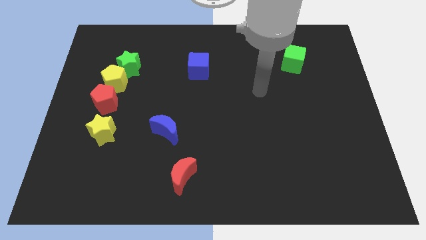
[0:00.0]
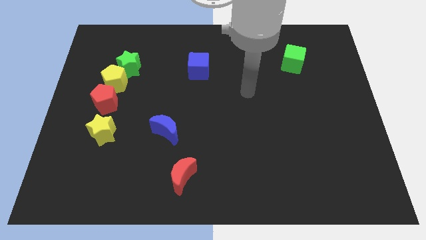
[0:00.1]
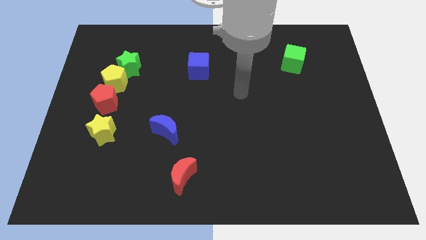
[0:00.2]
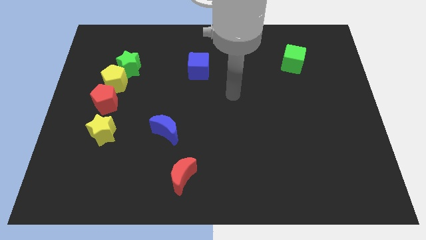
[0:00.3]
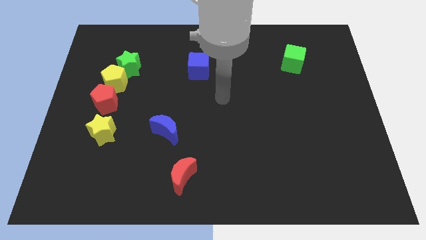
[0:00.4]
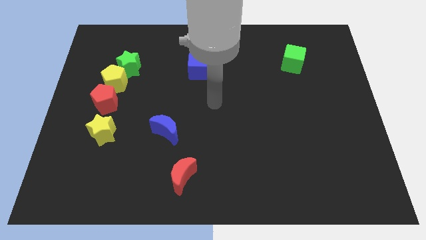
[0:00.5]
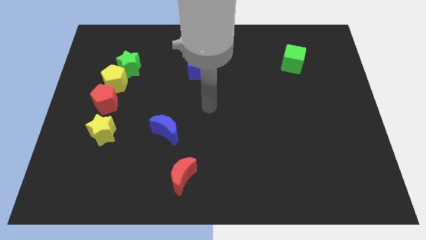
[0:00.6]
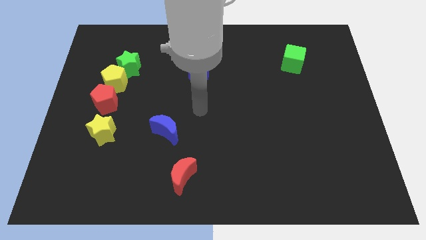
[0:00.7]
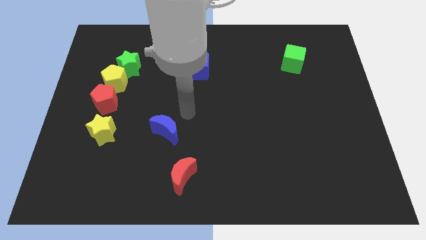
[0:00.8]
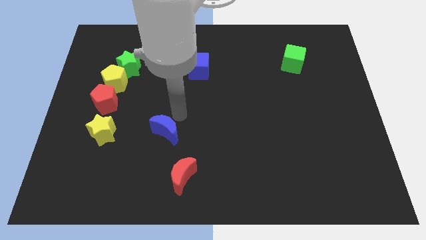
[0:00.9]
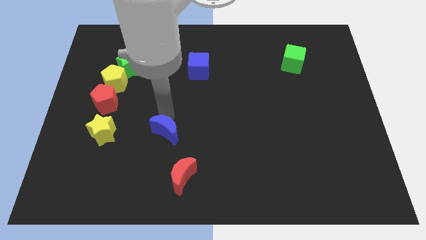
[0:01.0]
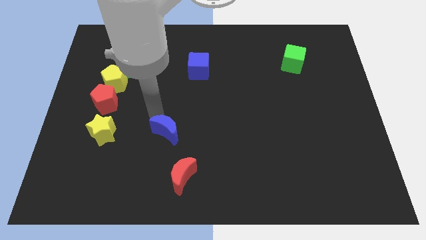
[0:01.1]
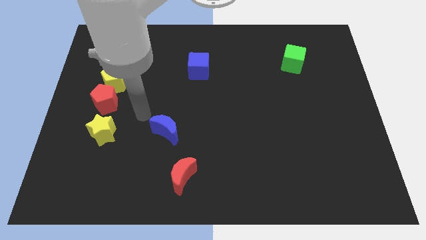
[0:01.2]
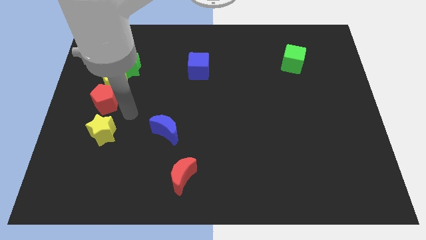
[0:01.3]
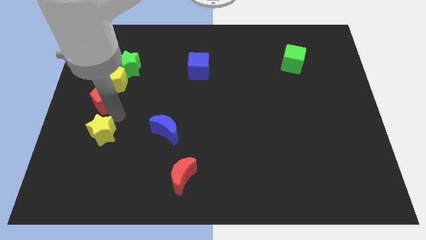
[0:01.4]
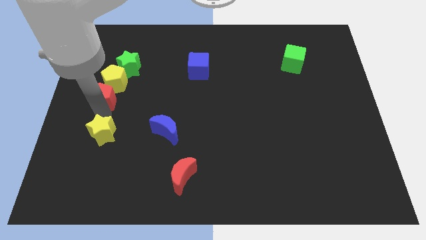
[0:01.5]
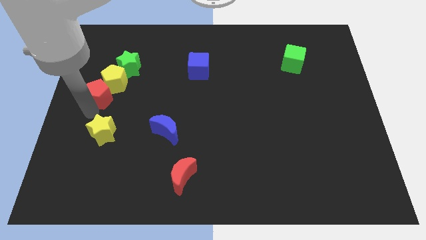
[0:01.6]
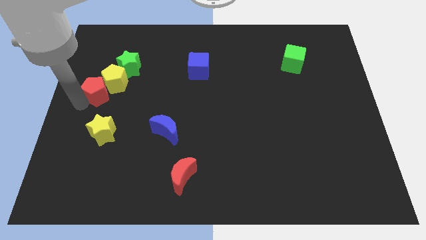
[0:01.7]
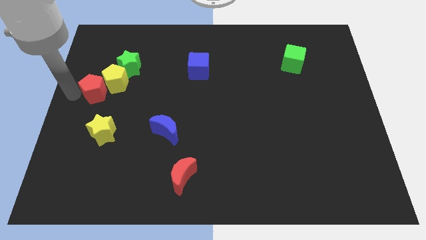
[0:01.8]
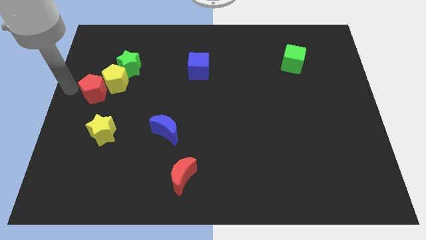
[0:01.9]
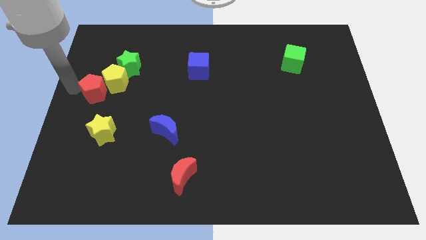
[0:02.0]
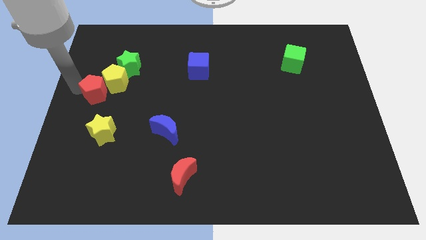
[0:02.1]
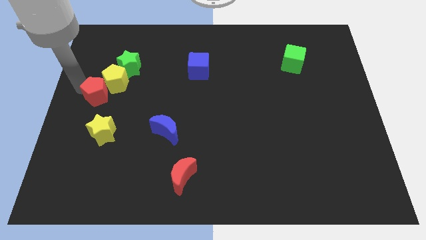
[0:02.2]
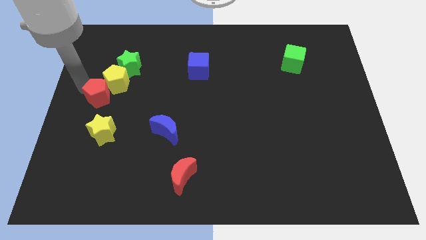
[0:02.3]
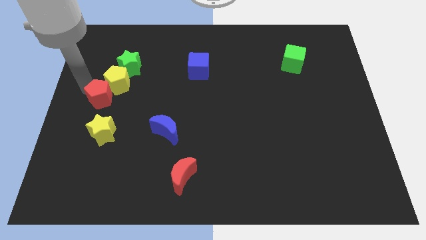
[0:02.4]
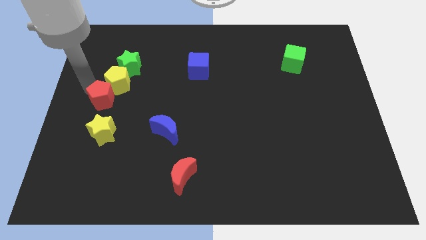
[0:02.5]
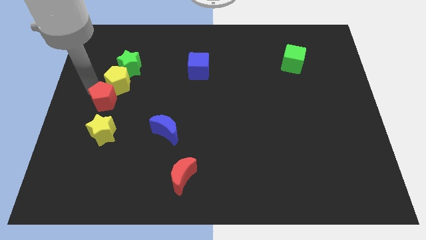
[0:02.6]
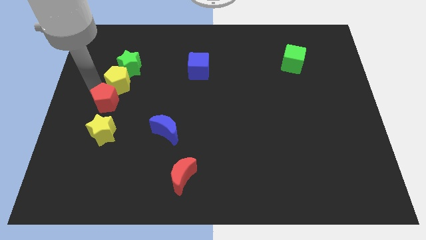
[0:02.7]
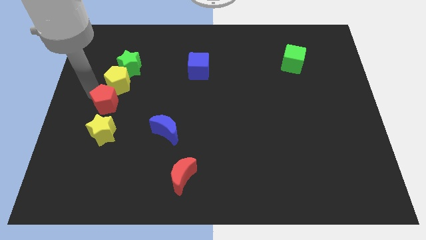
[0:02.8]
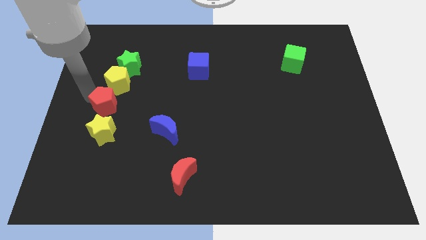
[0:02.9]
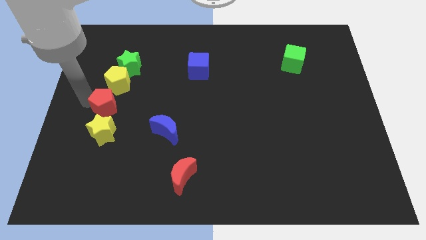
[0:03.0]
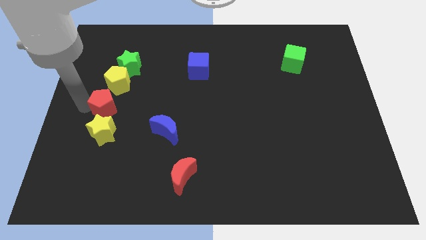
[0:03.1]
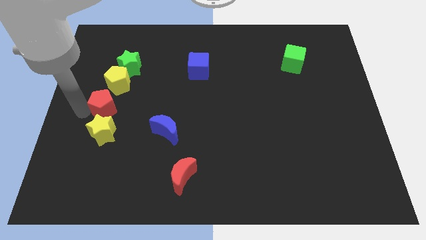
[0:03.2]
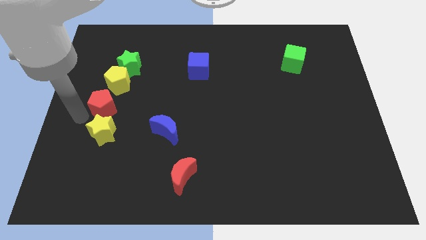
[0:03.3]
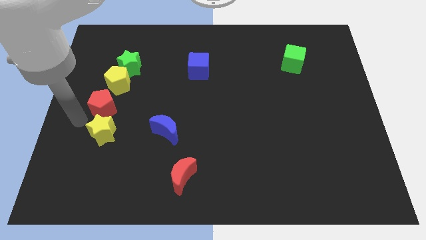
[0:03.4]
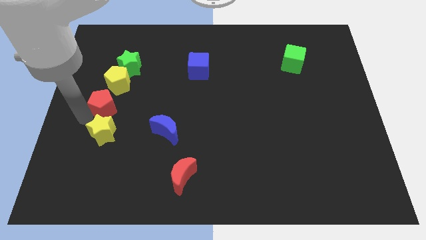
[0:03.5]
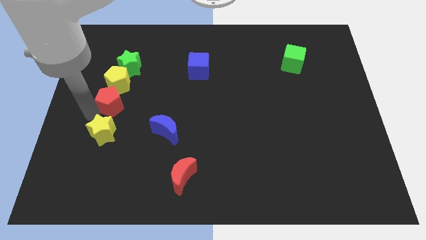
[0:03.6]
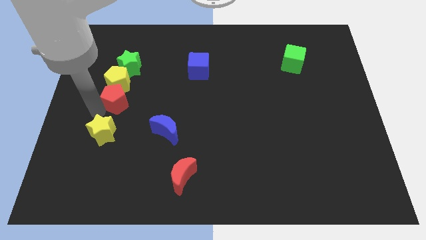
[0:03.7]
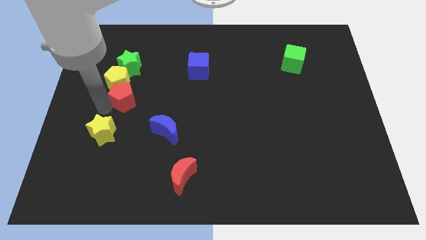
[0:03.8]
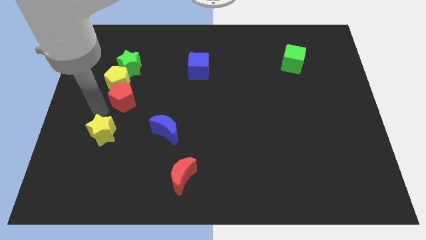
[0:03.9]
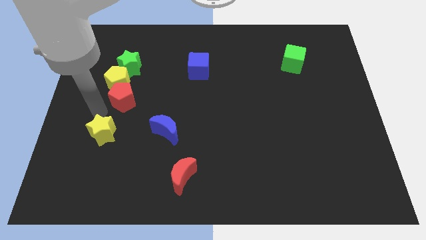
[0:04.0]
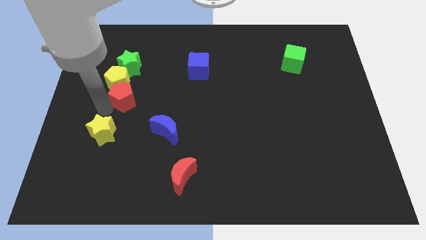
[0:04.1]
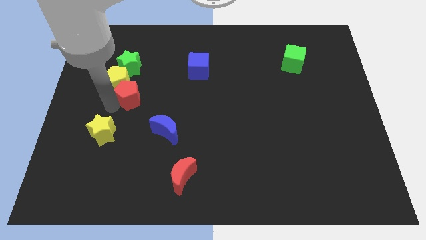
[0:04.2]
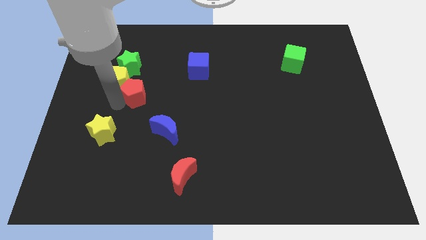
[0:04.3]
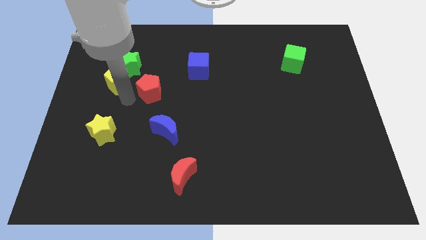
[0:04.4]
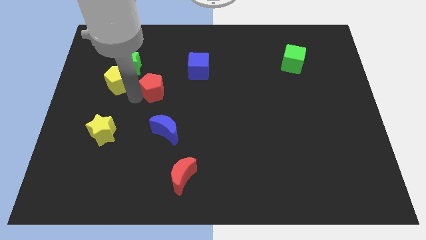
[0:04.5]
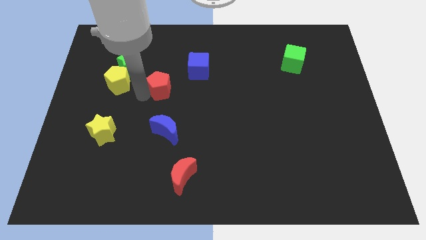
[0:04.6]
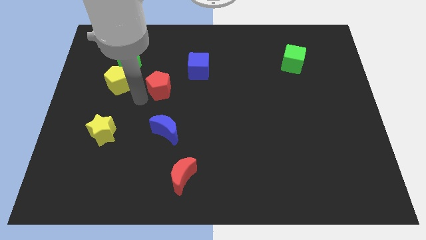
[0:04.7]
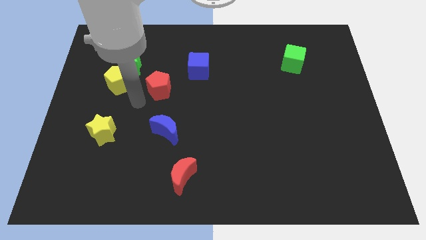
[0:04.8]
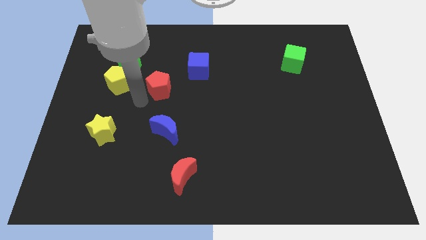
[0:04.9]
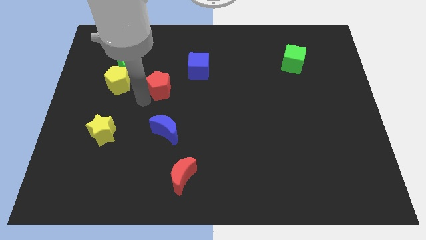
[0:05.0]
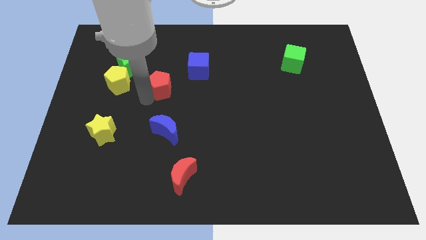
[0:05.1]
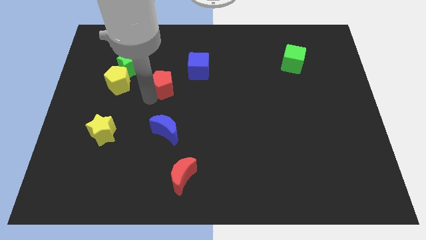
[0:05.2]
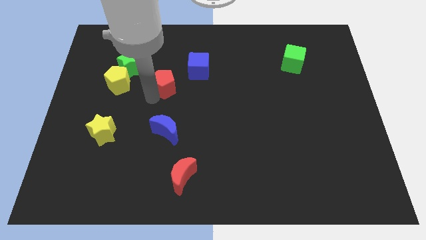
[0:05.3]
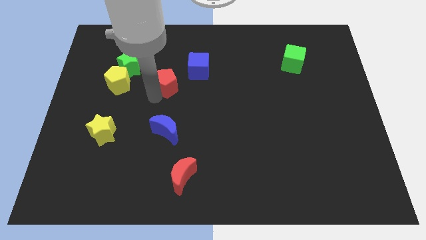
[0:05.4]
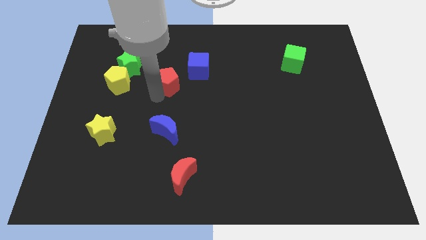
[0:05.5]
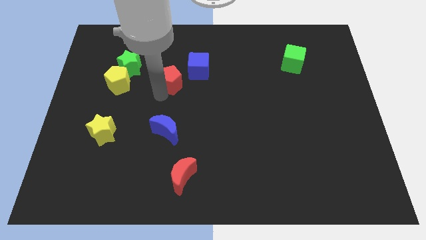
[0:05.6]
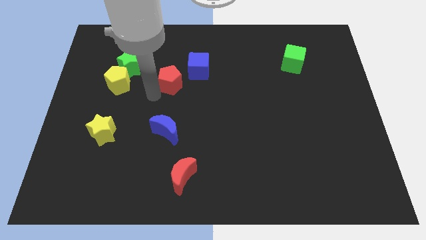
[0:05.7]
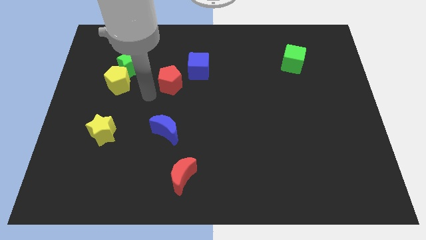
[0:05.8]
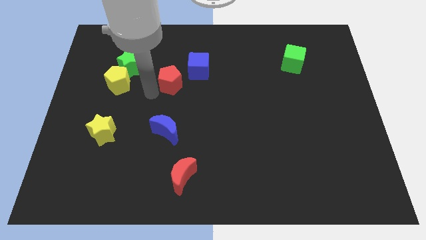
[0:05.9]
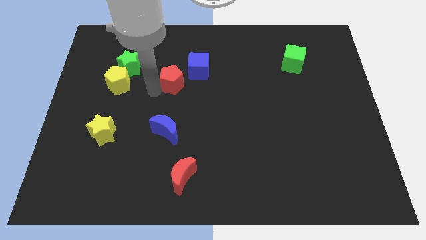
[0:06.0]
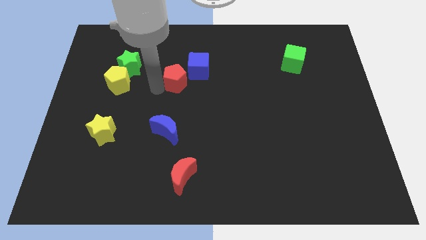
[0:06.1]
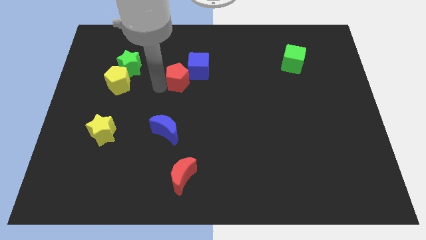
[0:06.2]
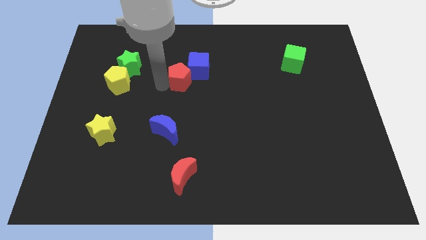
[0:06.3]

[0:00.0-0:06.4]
push the red pentagon to the blue cube
